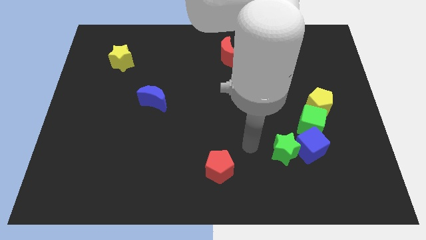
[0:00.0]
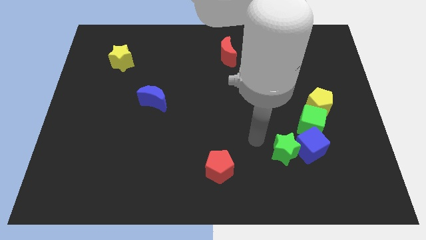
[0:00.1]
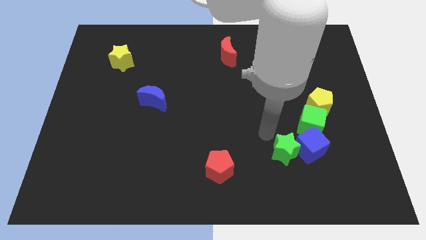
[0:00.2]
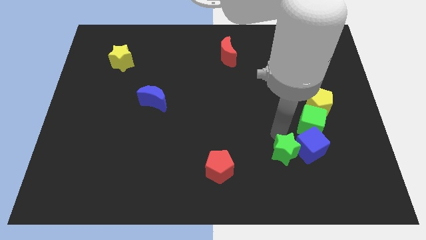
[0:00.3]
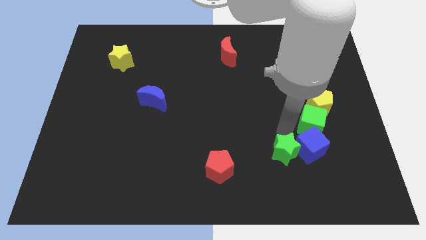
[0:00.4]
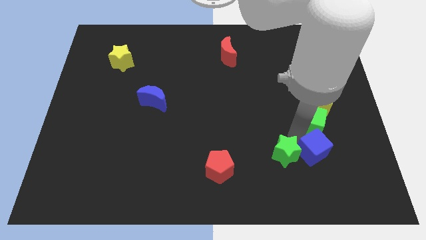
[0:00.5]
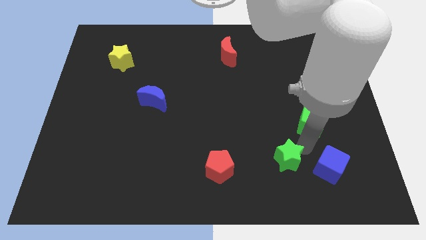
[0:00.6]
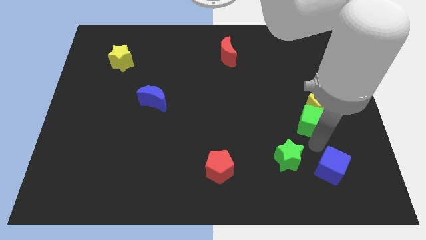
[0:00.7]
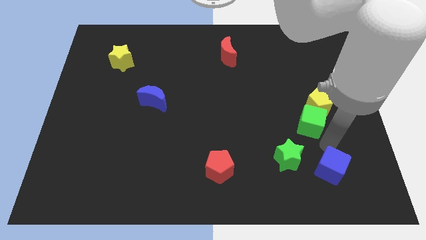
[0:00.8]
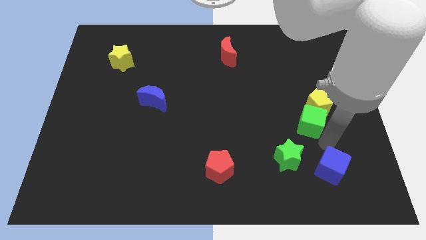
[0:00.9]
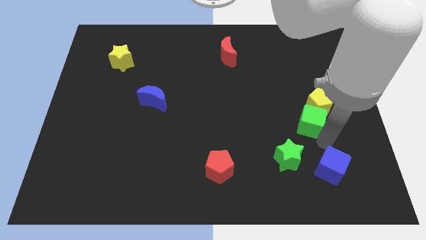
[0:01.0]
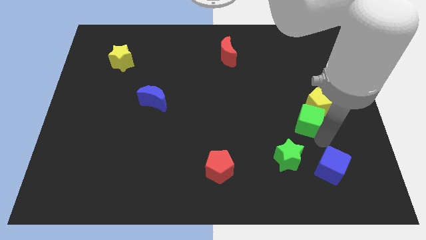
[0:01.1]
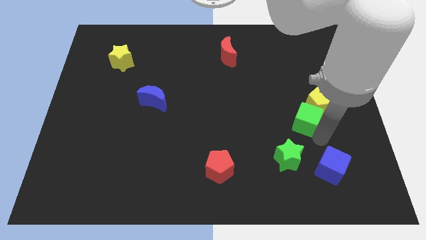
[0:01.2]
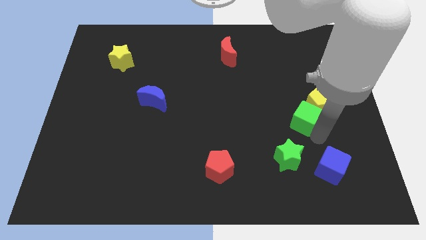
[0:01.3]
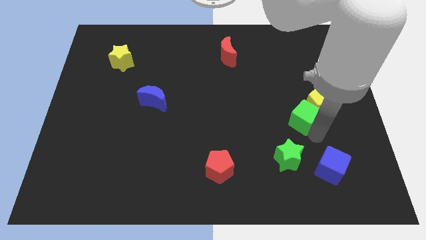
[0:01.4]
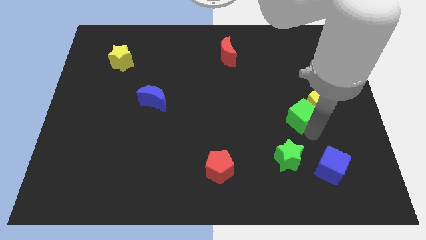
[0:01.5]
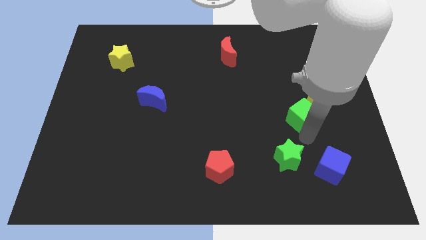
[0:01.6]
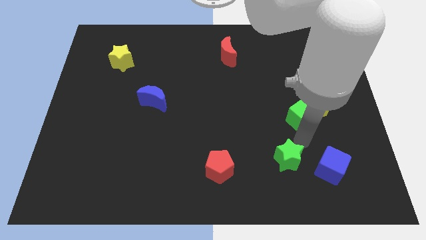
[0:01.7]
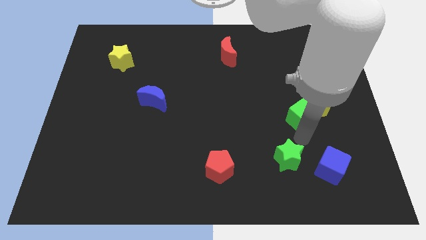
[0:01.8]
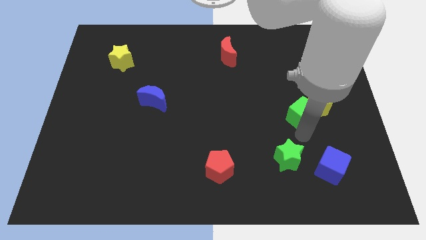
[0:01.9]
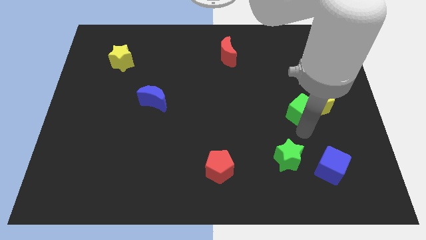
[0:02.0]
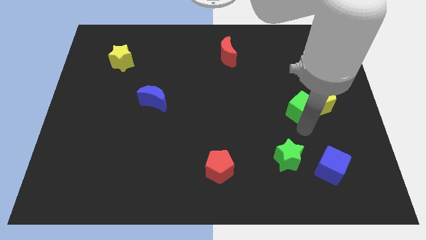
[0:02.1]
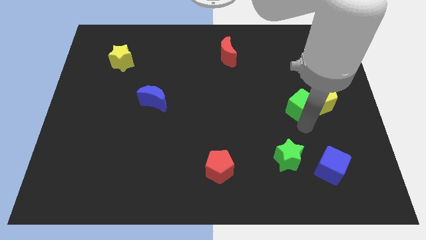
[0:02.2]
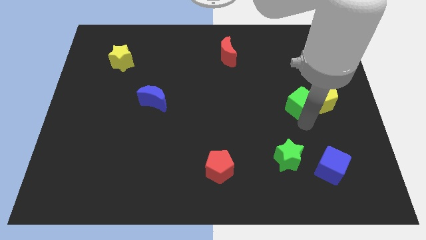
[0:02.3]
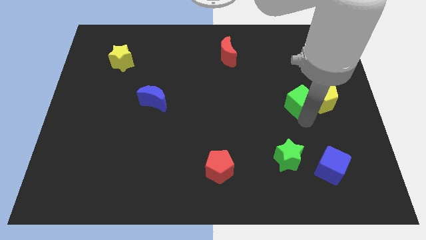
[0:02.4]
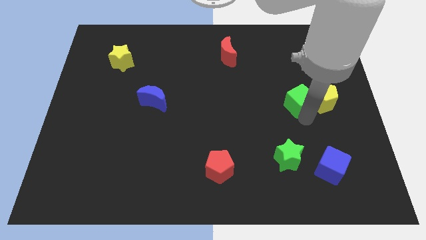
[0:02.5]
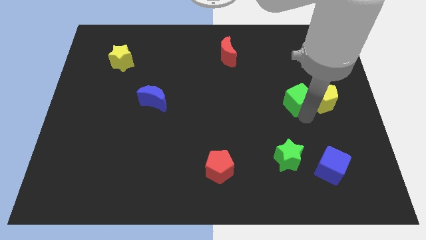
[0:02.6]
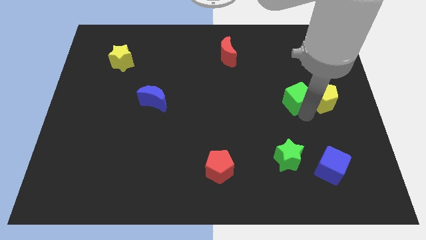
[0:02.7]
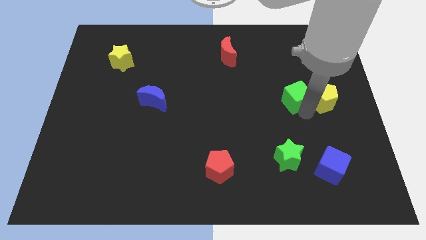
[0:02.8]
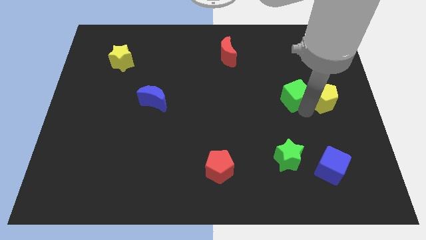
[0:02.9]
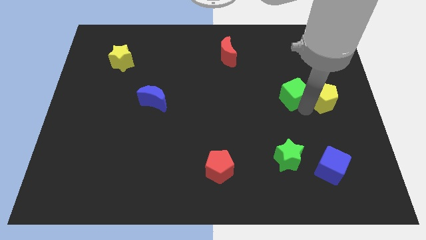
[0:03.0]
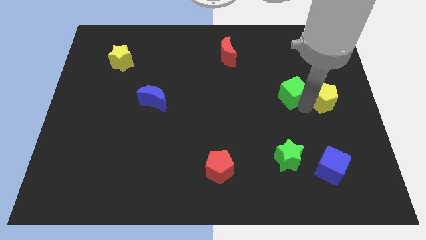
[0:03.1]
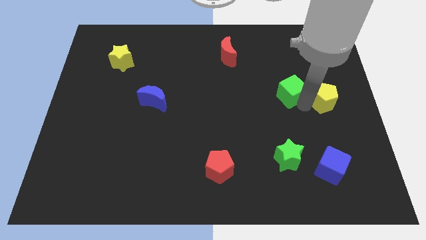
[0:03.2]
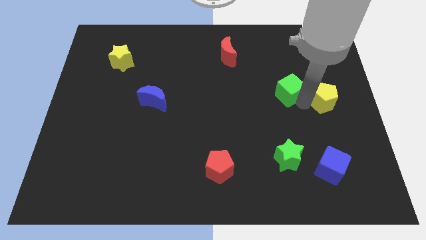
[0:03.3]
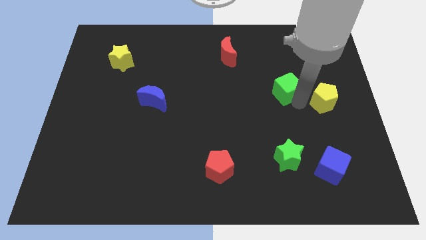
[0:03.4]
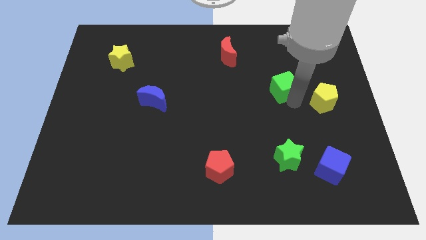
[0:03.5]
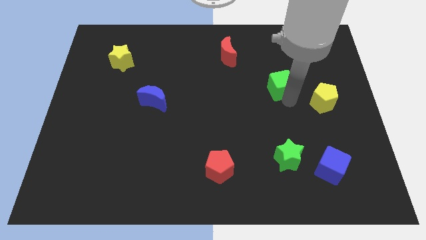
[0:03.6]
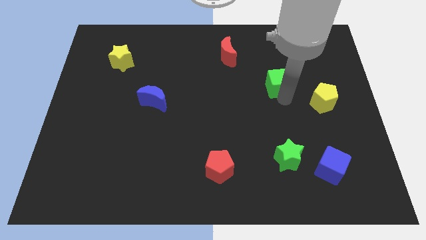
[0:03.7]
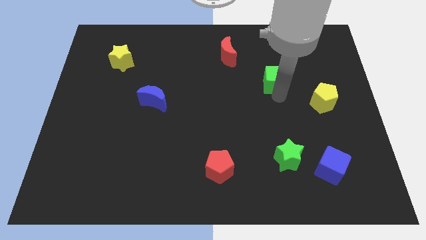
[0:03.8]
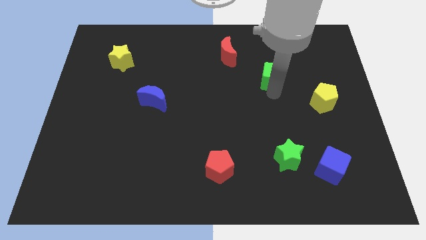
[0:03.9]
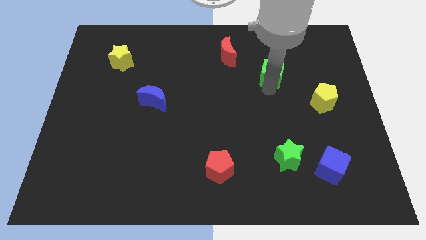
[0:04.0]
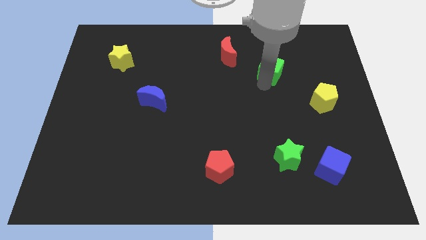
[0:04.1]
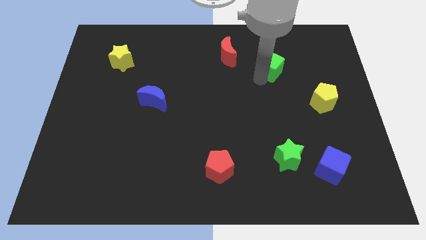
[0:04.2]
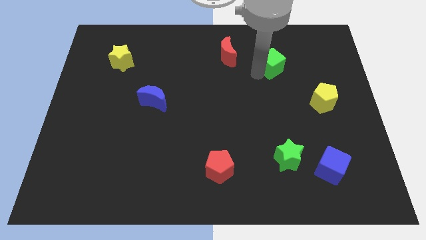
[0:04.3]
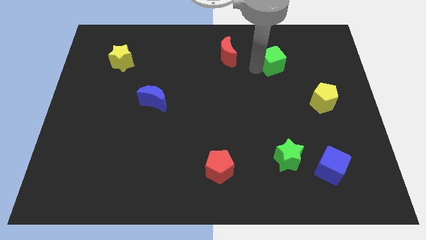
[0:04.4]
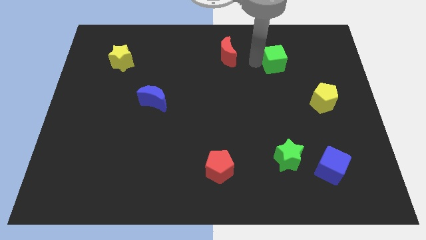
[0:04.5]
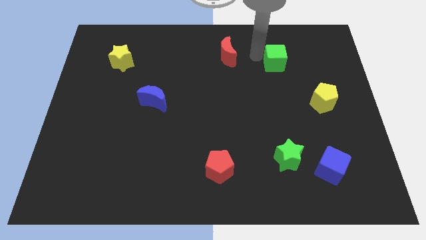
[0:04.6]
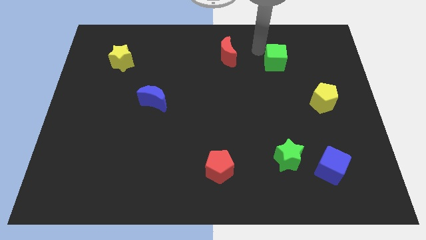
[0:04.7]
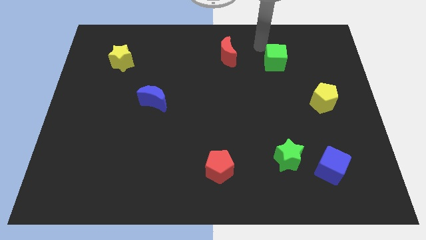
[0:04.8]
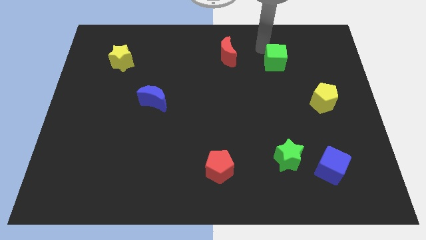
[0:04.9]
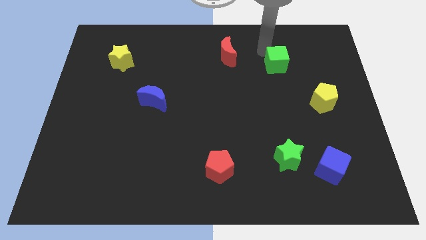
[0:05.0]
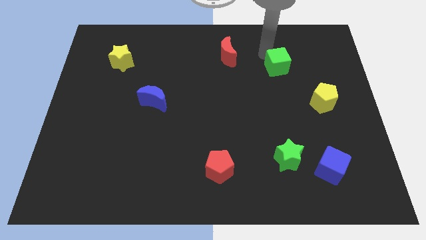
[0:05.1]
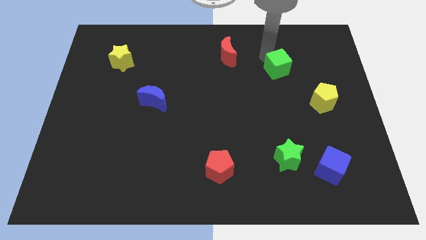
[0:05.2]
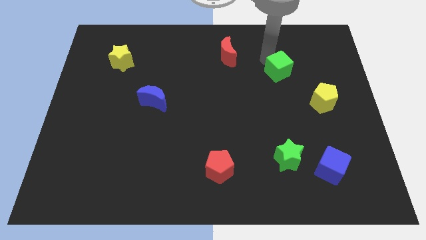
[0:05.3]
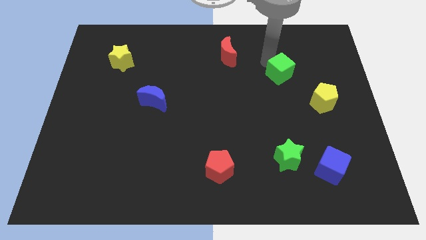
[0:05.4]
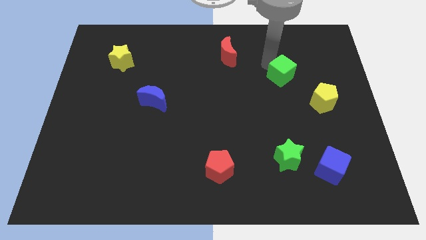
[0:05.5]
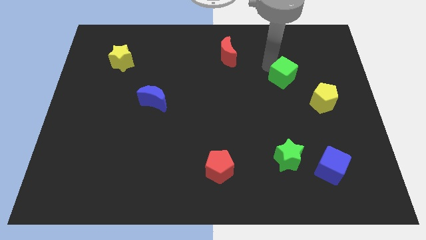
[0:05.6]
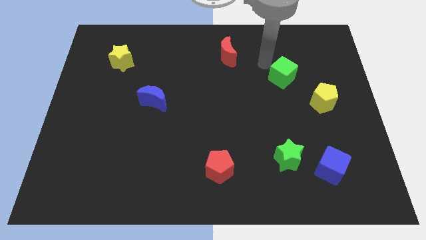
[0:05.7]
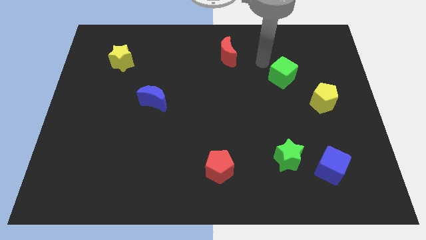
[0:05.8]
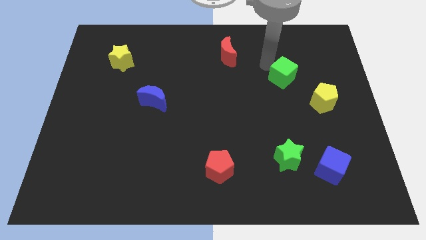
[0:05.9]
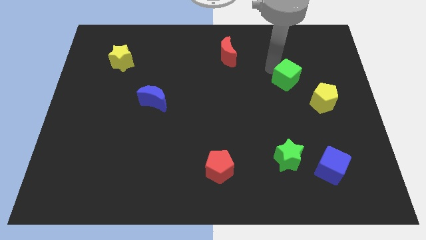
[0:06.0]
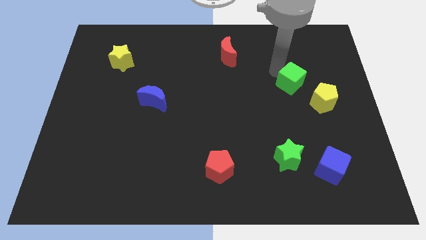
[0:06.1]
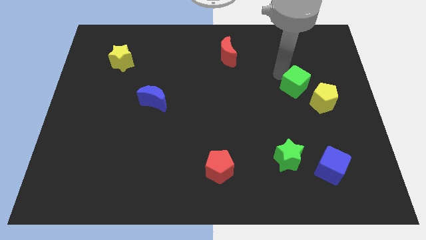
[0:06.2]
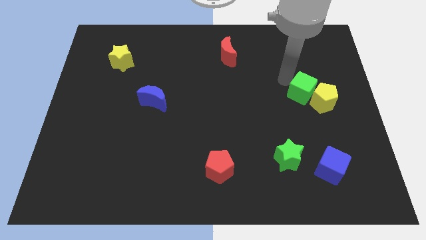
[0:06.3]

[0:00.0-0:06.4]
slide the green cube to the top of the yellow pentagon

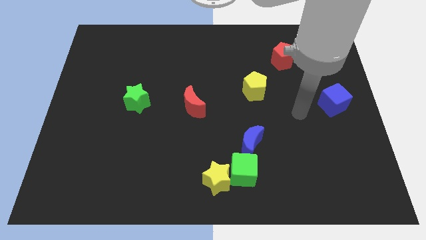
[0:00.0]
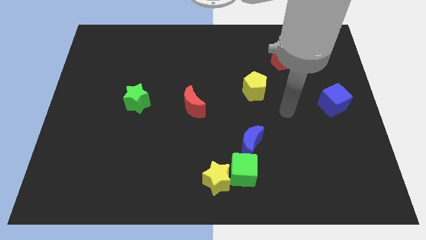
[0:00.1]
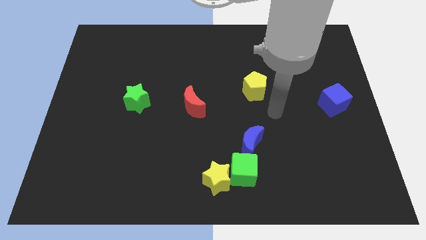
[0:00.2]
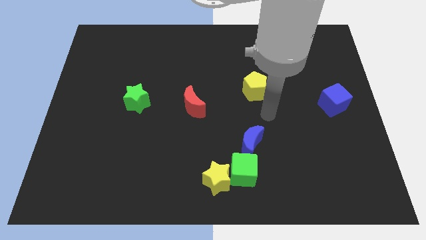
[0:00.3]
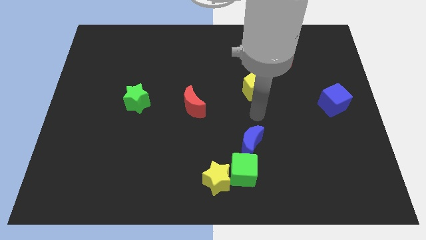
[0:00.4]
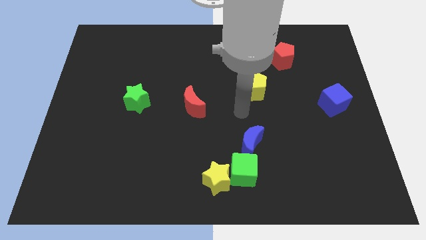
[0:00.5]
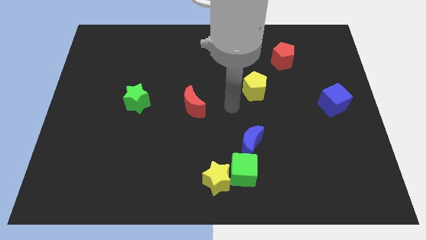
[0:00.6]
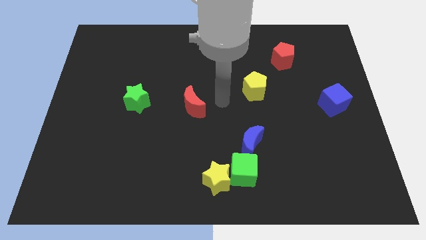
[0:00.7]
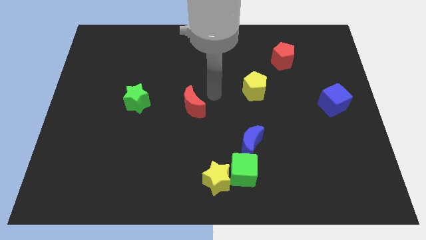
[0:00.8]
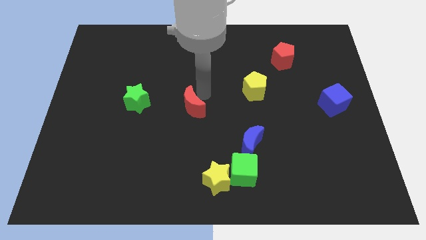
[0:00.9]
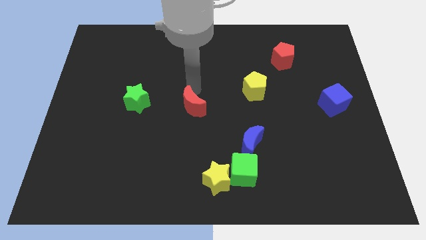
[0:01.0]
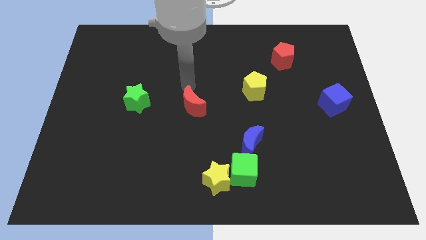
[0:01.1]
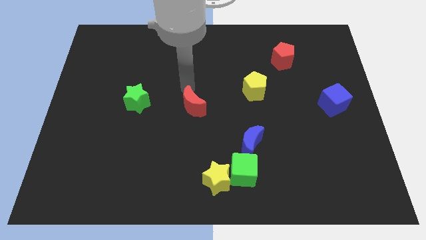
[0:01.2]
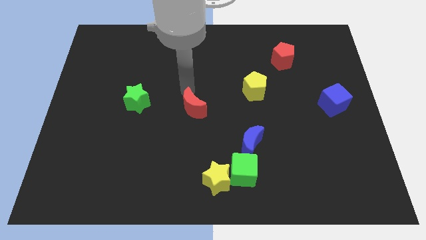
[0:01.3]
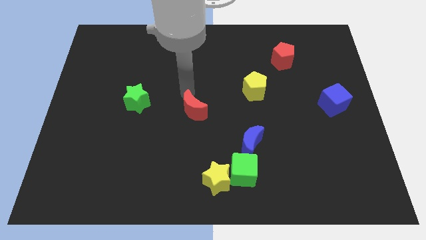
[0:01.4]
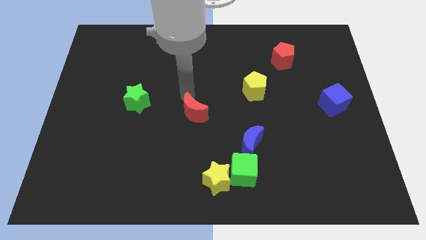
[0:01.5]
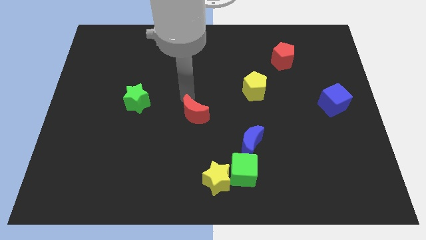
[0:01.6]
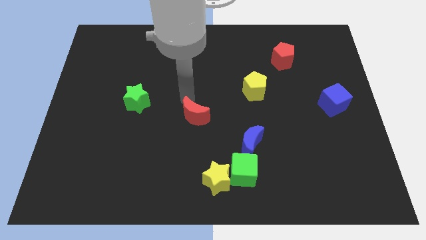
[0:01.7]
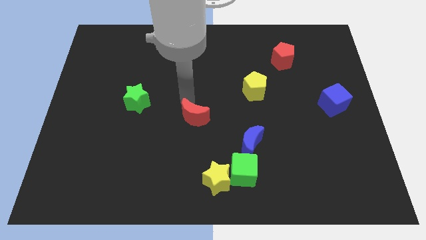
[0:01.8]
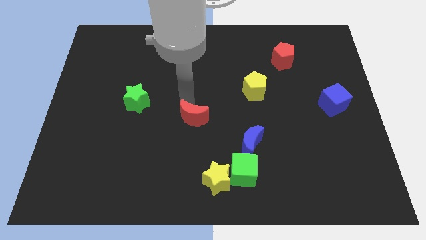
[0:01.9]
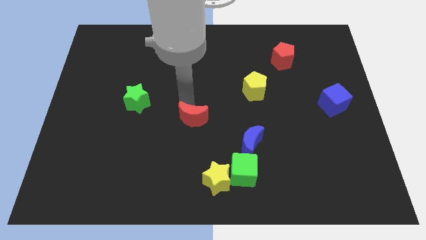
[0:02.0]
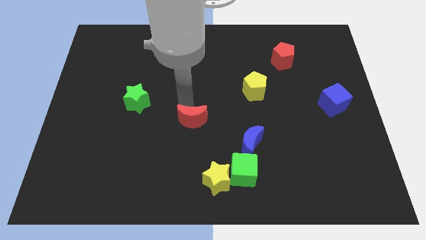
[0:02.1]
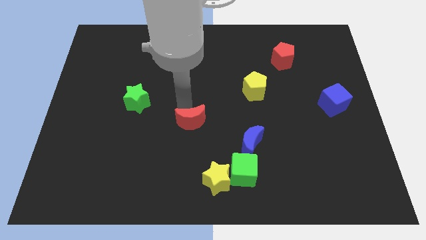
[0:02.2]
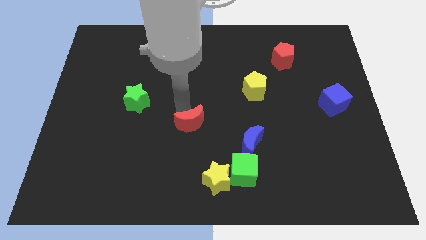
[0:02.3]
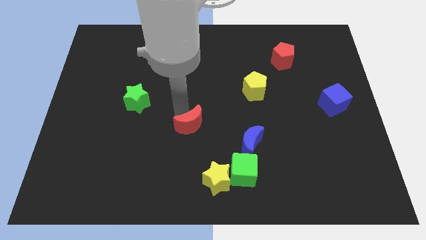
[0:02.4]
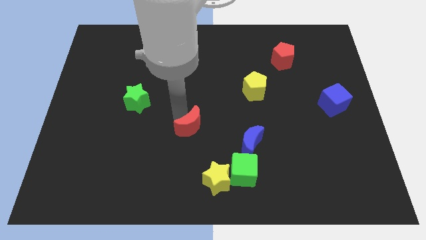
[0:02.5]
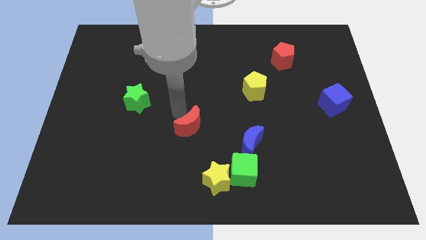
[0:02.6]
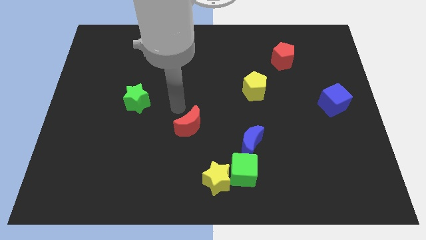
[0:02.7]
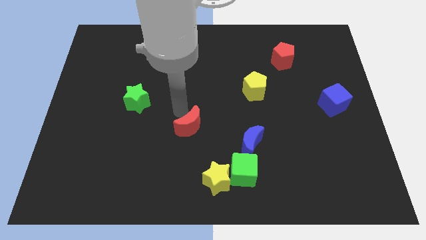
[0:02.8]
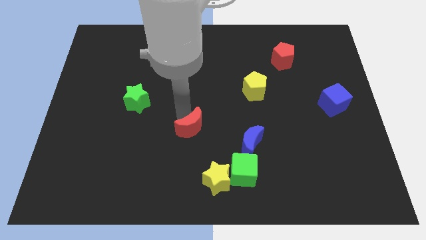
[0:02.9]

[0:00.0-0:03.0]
slide the red moon to the left of the blue moon
